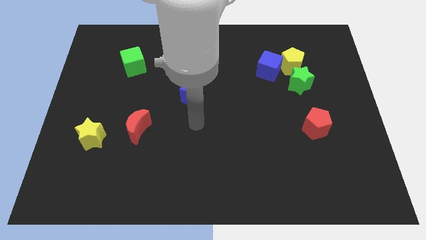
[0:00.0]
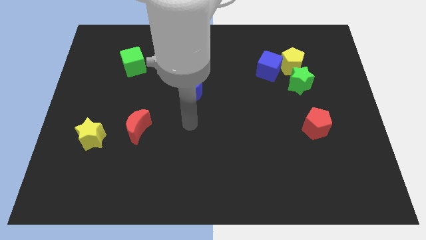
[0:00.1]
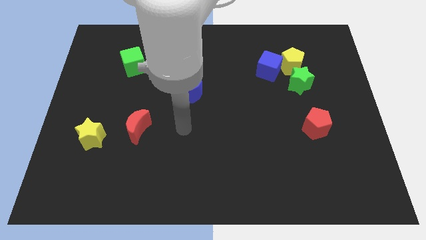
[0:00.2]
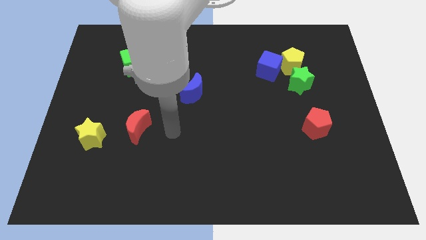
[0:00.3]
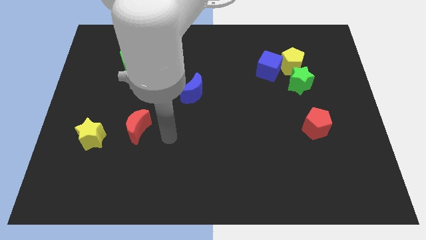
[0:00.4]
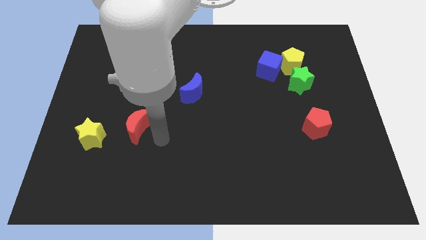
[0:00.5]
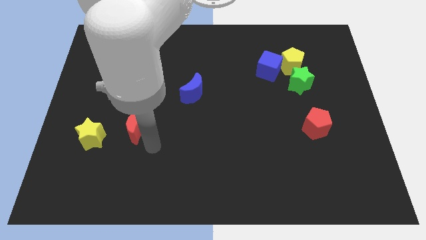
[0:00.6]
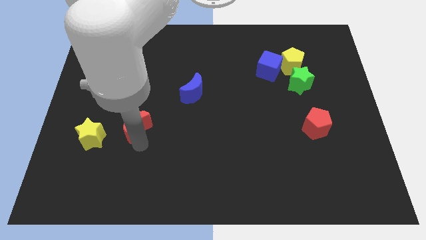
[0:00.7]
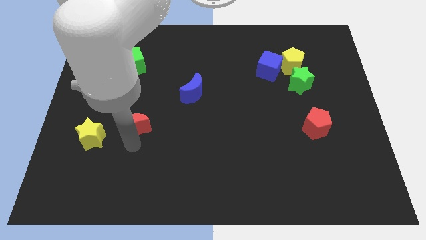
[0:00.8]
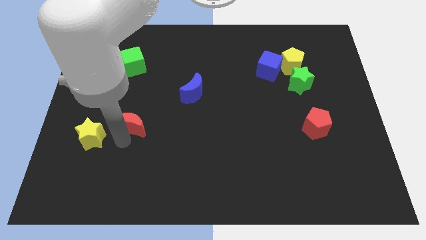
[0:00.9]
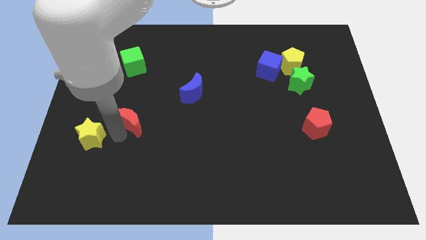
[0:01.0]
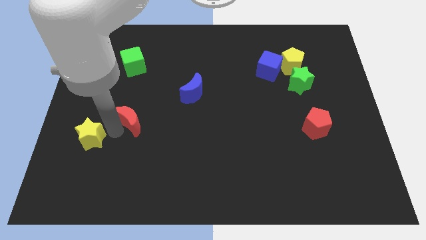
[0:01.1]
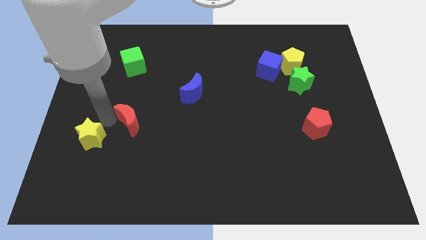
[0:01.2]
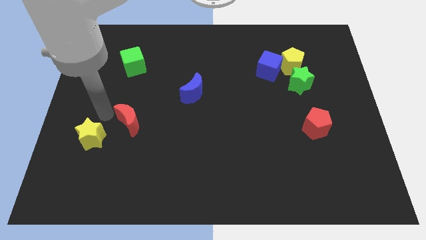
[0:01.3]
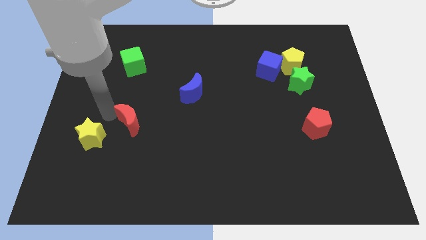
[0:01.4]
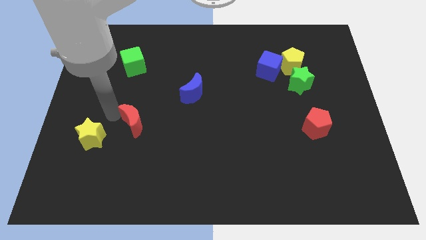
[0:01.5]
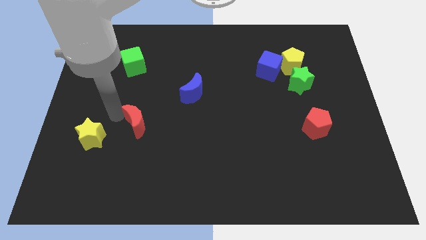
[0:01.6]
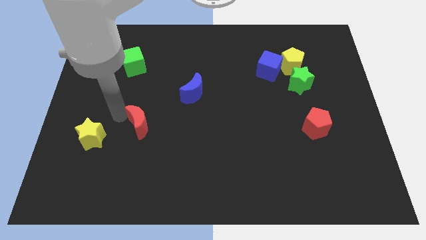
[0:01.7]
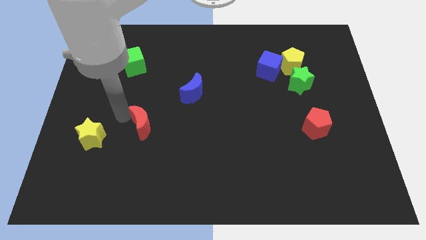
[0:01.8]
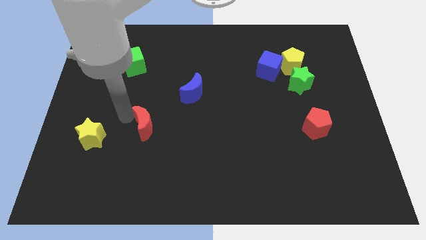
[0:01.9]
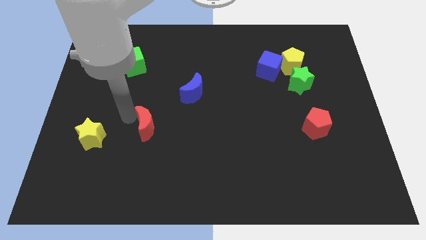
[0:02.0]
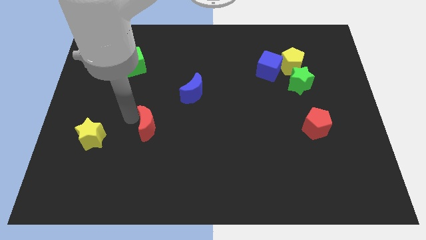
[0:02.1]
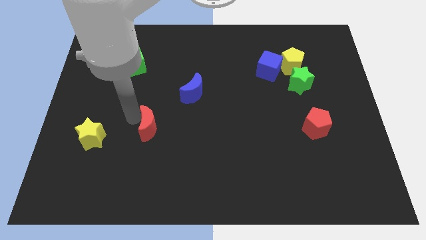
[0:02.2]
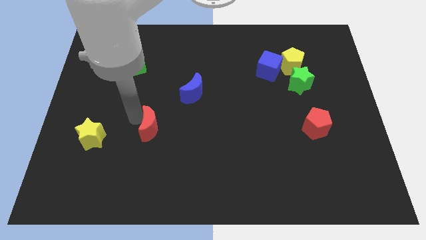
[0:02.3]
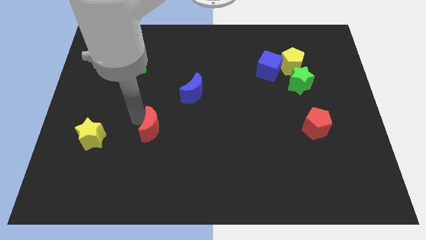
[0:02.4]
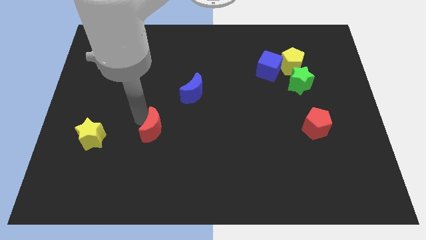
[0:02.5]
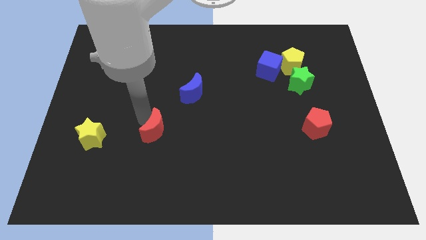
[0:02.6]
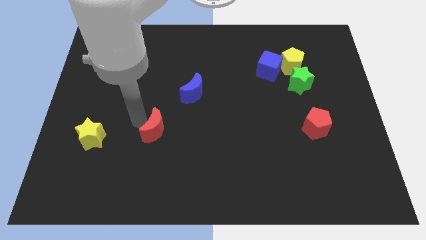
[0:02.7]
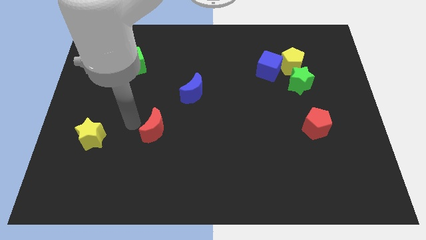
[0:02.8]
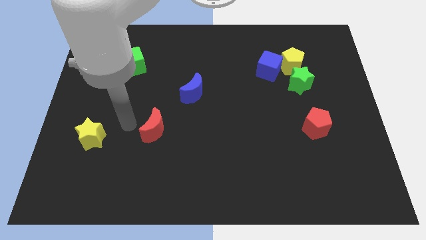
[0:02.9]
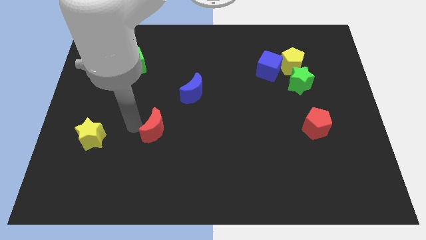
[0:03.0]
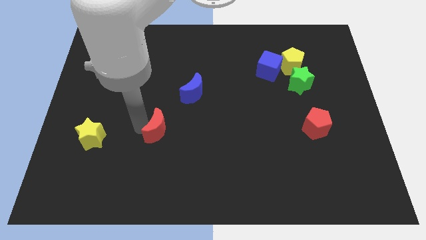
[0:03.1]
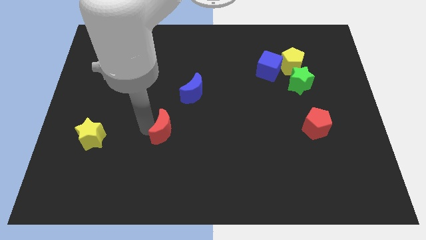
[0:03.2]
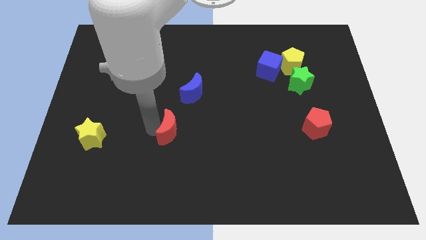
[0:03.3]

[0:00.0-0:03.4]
slightly move the red moon right

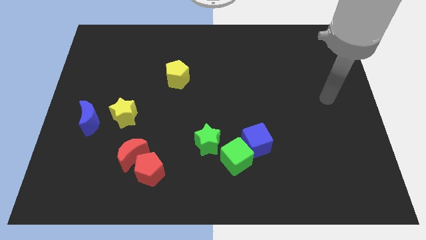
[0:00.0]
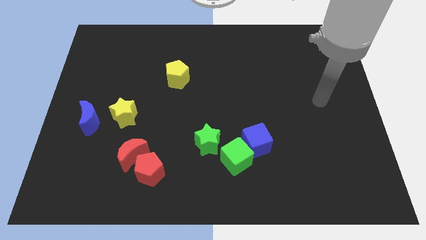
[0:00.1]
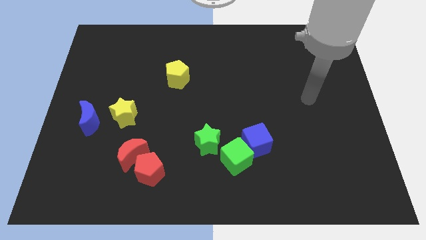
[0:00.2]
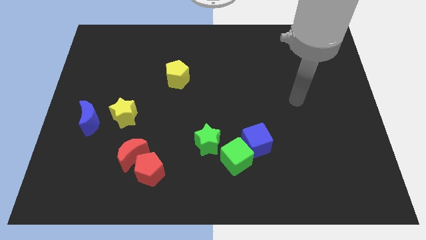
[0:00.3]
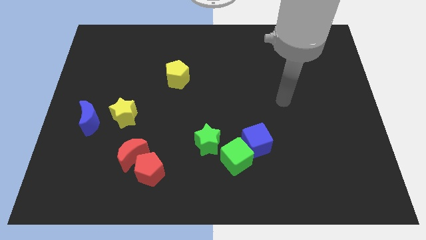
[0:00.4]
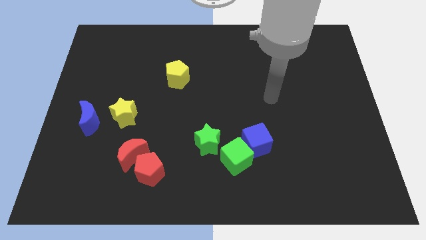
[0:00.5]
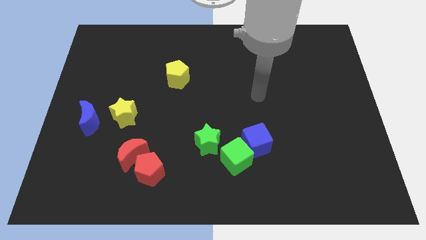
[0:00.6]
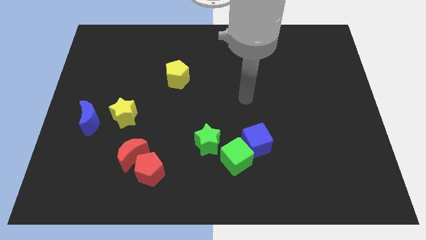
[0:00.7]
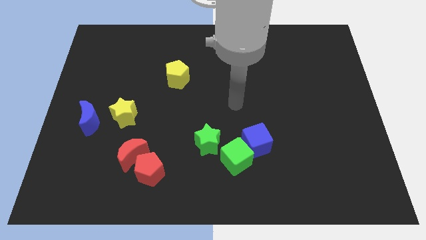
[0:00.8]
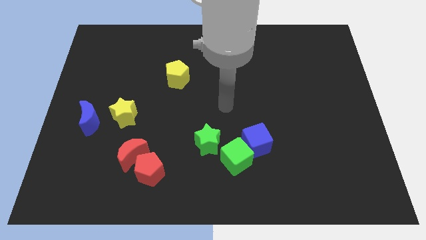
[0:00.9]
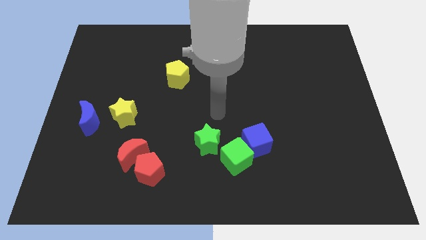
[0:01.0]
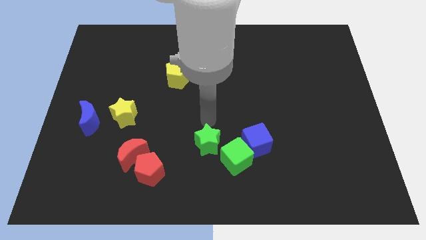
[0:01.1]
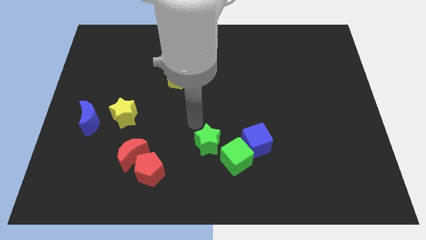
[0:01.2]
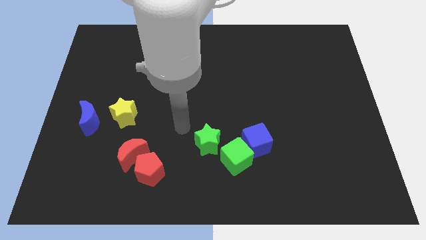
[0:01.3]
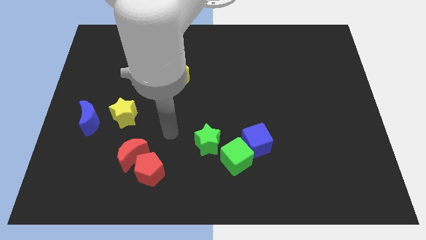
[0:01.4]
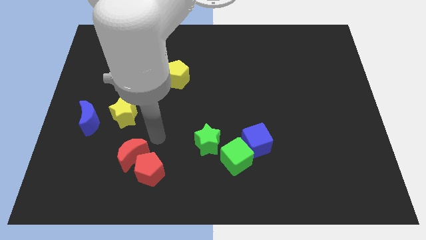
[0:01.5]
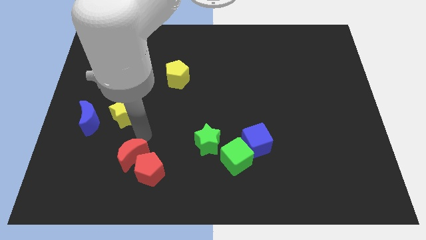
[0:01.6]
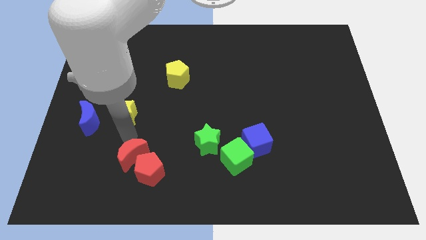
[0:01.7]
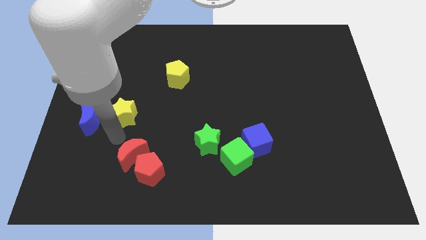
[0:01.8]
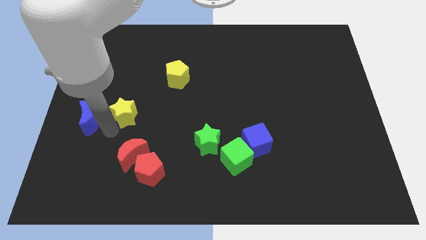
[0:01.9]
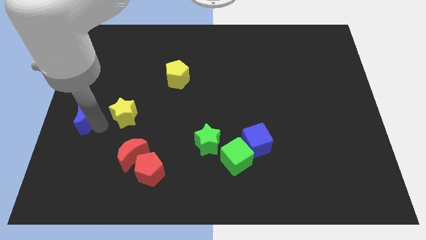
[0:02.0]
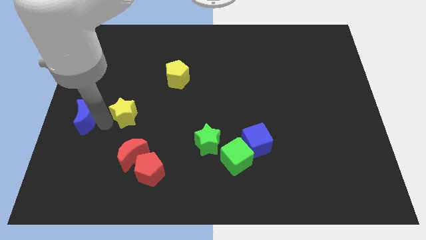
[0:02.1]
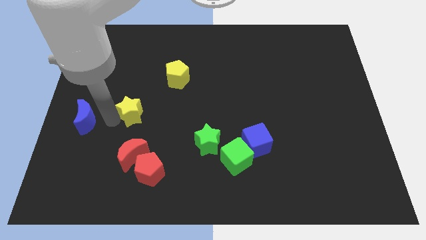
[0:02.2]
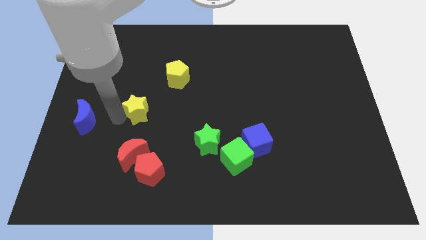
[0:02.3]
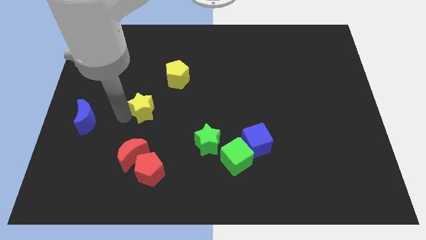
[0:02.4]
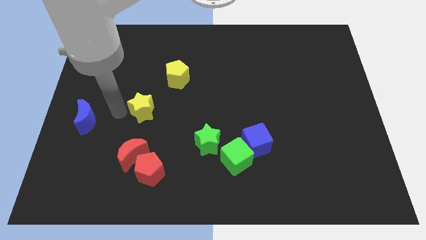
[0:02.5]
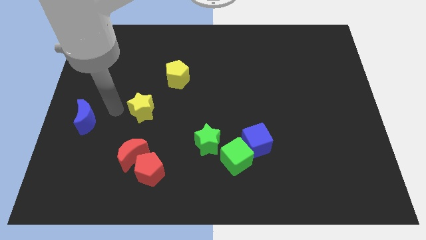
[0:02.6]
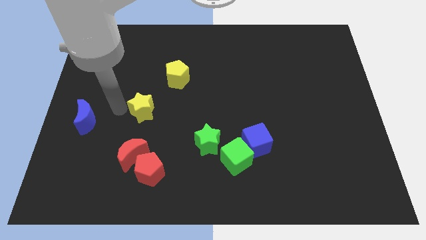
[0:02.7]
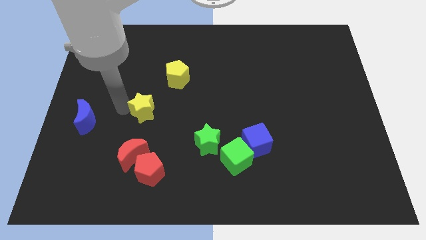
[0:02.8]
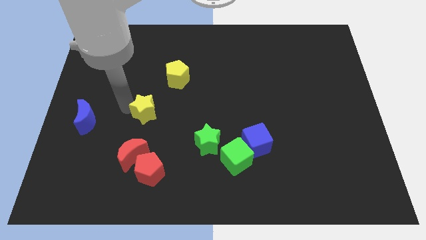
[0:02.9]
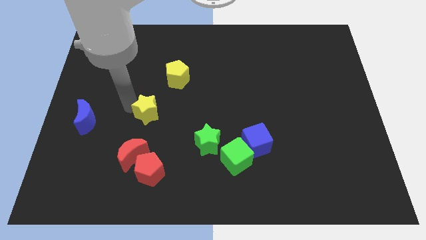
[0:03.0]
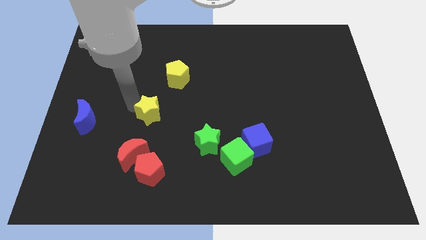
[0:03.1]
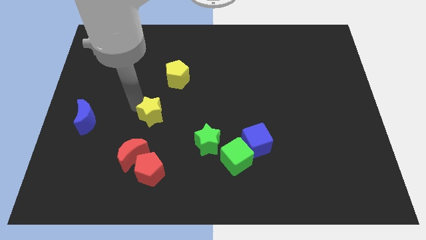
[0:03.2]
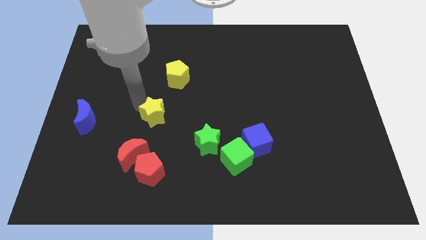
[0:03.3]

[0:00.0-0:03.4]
push the yellow star slightly to the right

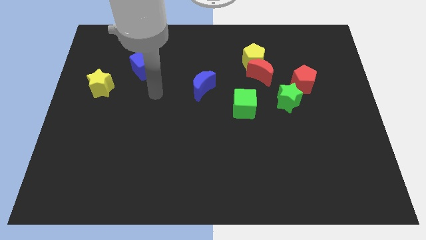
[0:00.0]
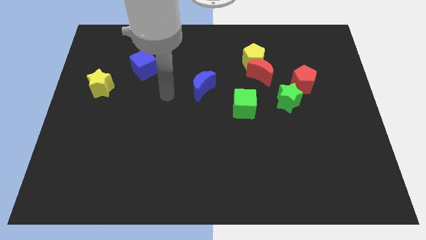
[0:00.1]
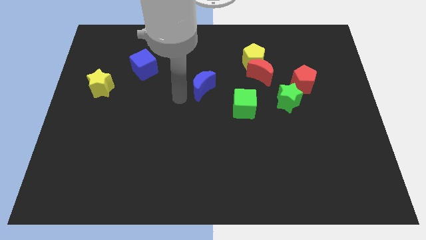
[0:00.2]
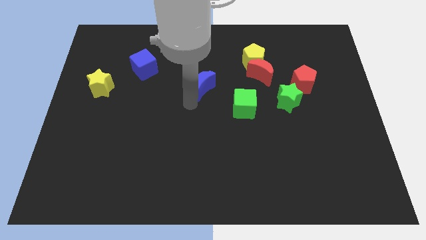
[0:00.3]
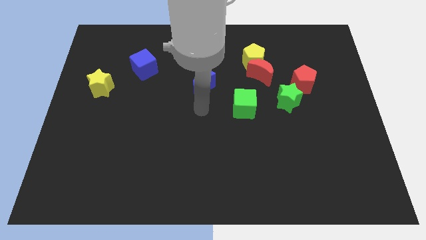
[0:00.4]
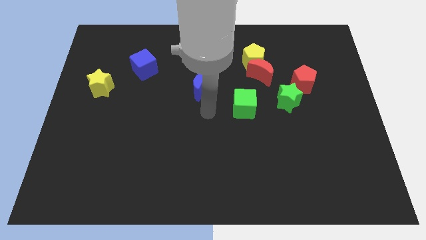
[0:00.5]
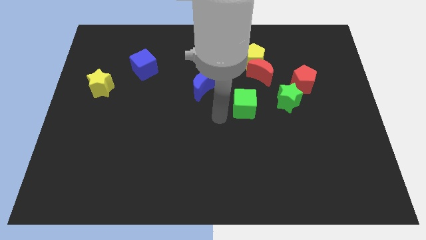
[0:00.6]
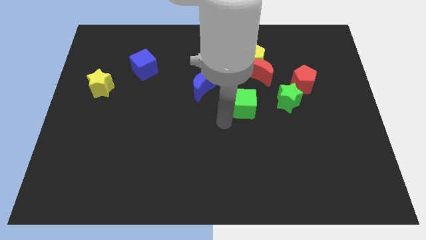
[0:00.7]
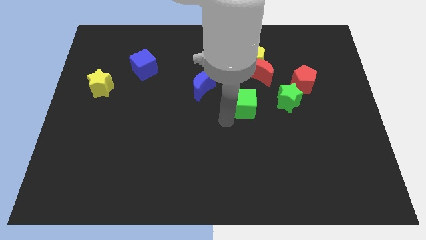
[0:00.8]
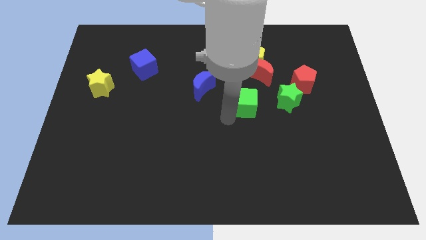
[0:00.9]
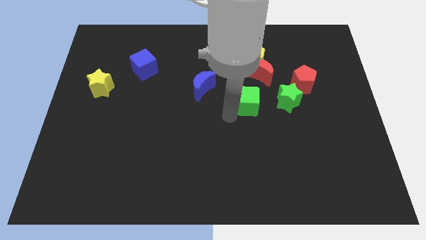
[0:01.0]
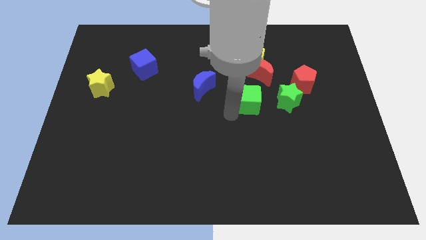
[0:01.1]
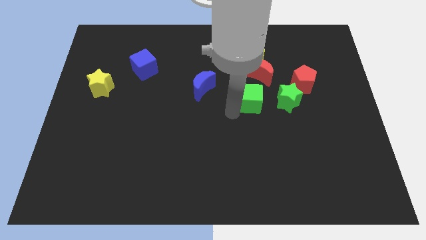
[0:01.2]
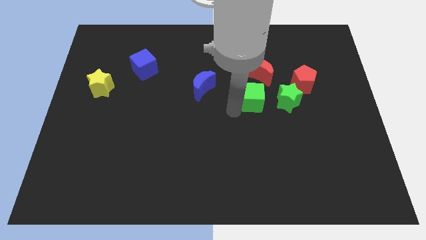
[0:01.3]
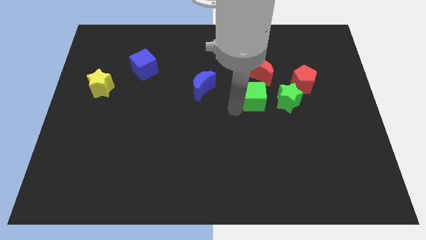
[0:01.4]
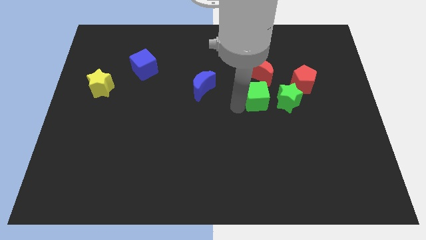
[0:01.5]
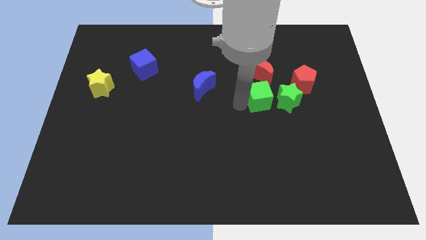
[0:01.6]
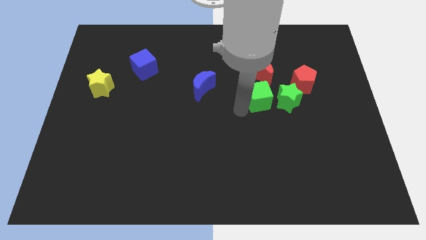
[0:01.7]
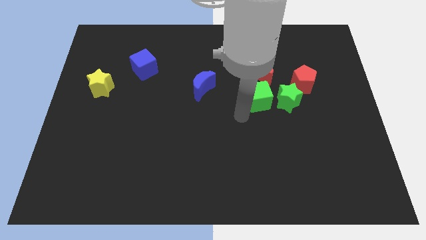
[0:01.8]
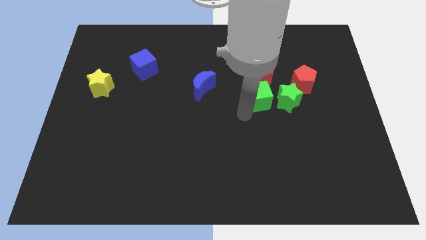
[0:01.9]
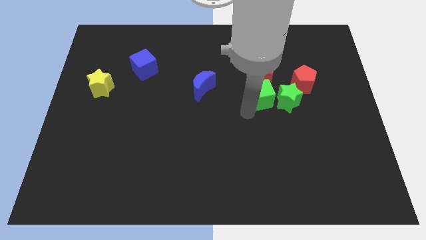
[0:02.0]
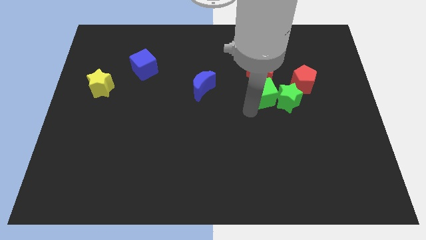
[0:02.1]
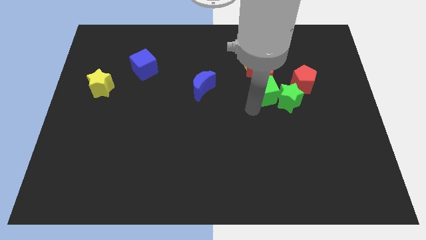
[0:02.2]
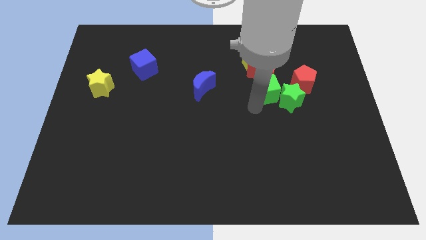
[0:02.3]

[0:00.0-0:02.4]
slide the green cube upwards and to the right diagonally a bit
